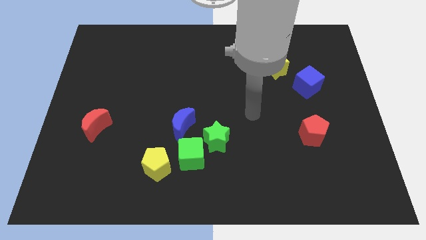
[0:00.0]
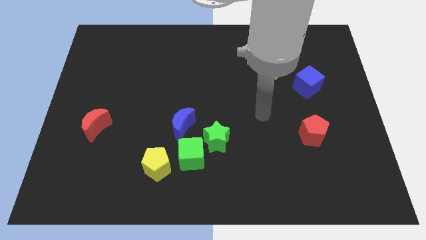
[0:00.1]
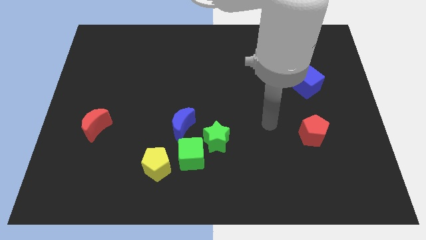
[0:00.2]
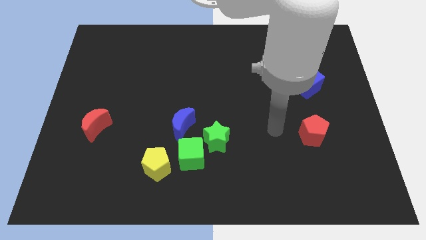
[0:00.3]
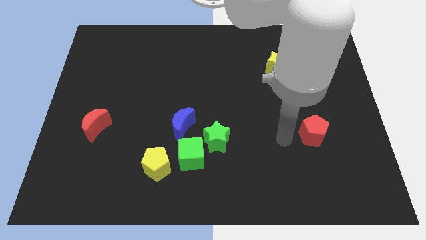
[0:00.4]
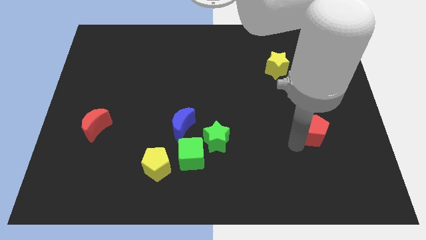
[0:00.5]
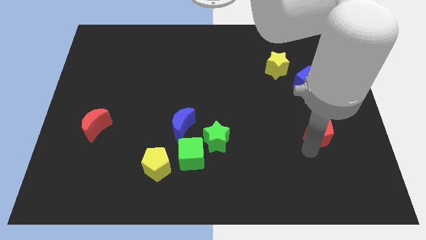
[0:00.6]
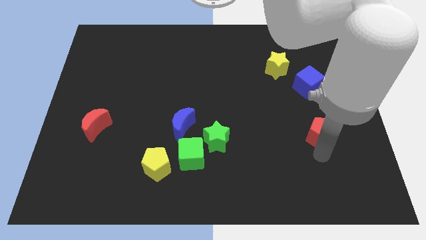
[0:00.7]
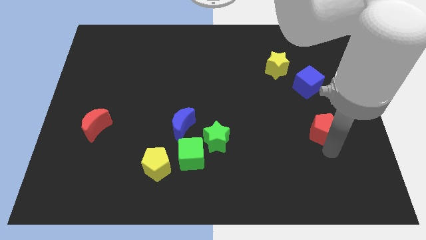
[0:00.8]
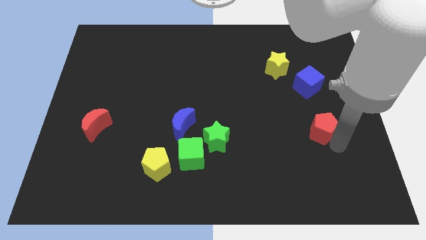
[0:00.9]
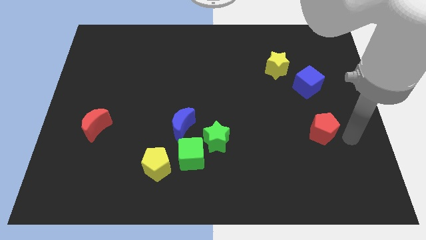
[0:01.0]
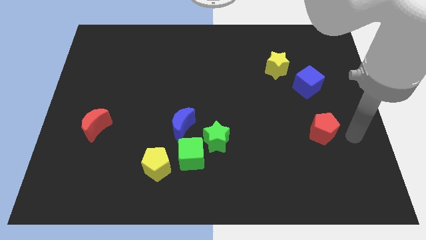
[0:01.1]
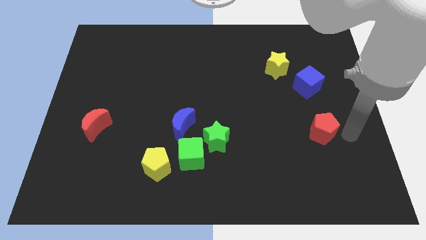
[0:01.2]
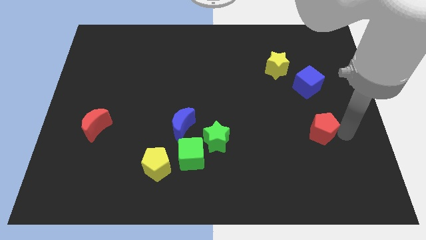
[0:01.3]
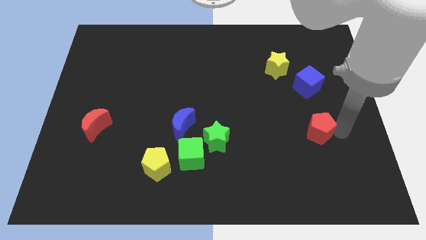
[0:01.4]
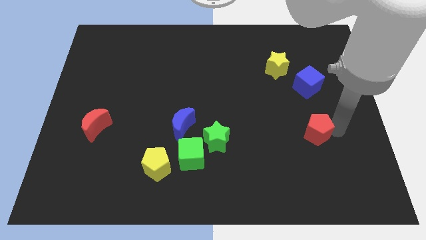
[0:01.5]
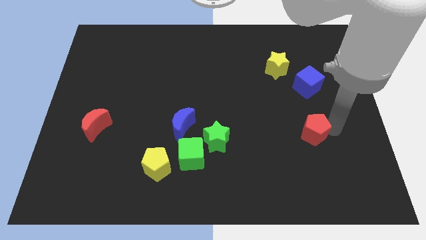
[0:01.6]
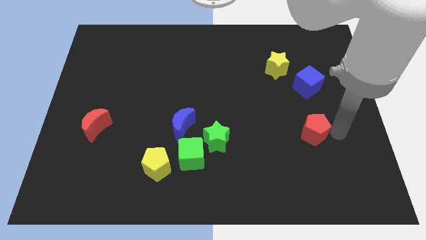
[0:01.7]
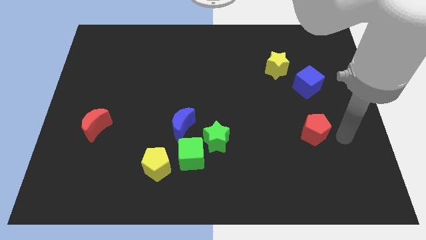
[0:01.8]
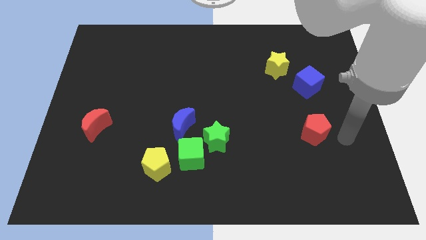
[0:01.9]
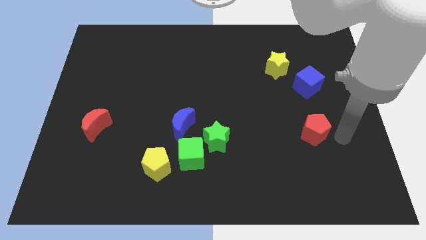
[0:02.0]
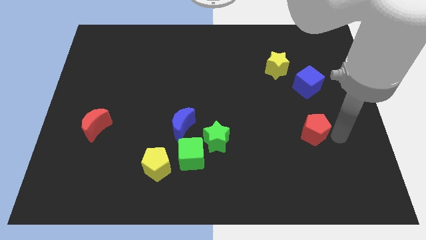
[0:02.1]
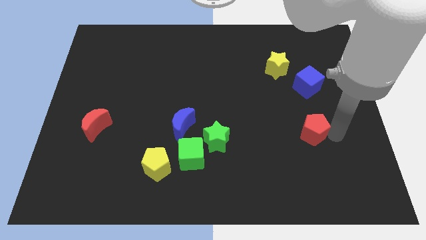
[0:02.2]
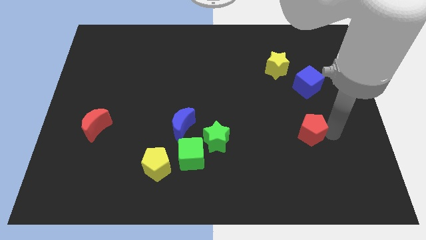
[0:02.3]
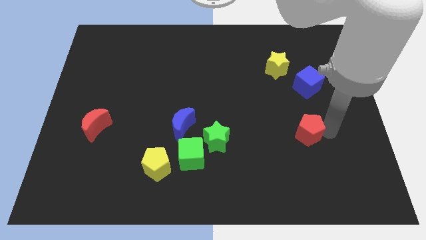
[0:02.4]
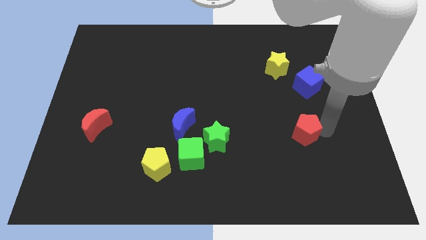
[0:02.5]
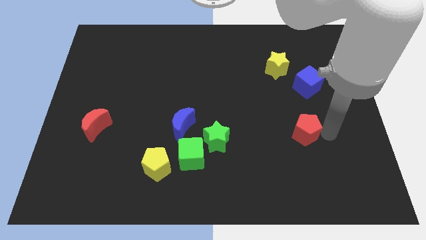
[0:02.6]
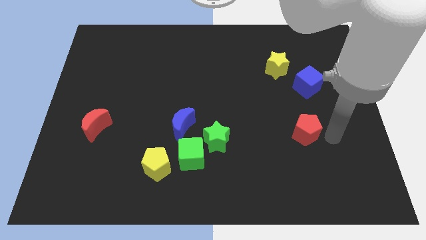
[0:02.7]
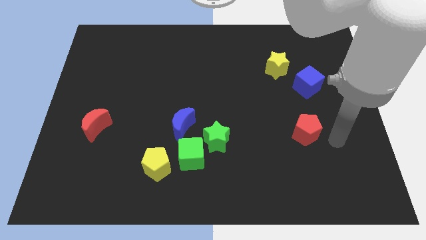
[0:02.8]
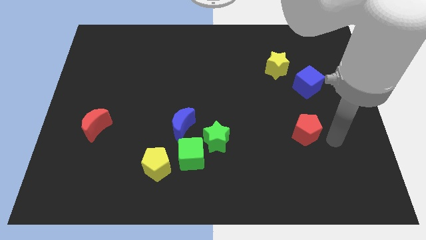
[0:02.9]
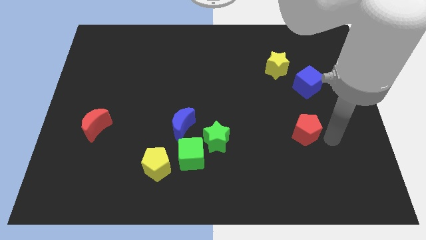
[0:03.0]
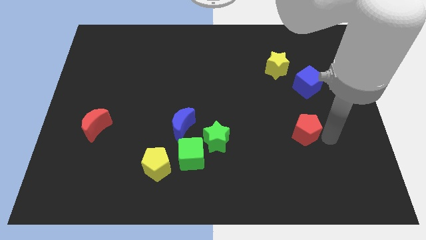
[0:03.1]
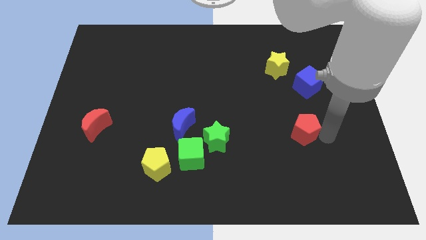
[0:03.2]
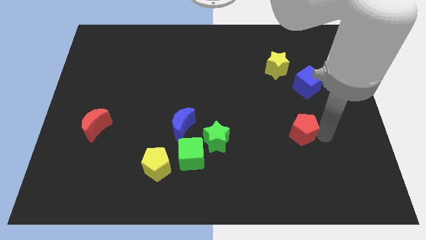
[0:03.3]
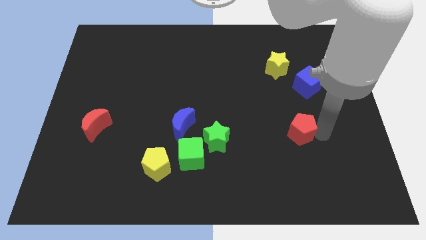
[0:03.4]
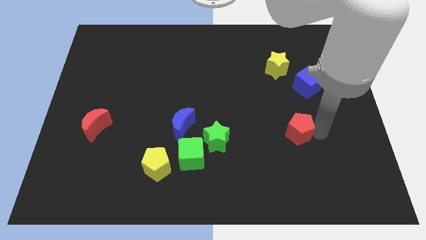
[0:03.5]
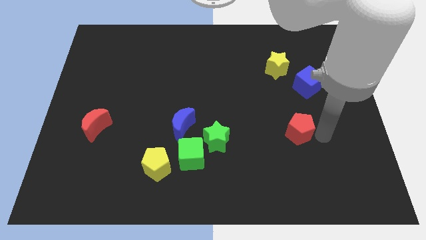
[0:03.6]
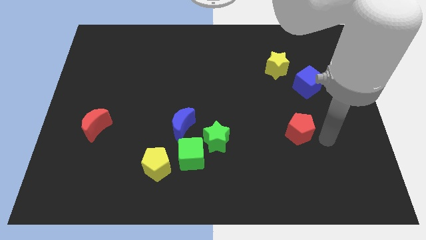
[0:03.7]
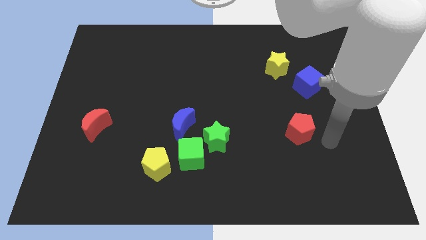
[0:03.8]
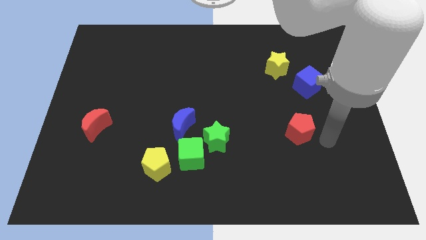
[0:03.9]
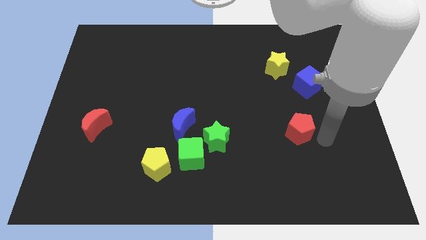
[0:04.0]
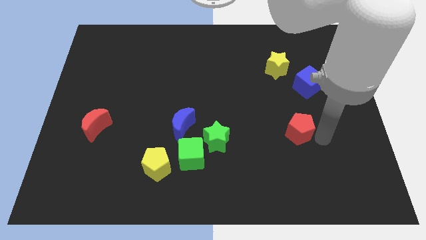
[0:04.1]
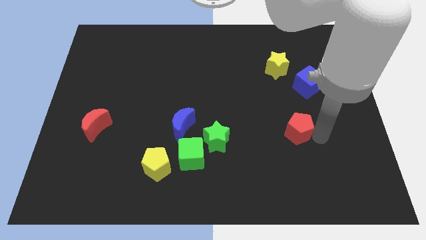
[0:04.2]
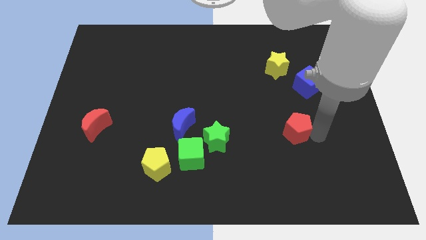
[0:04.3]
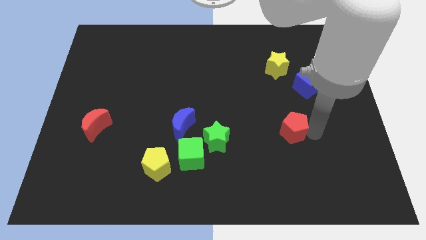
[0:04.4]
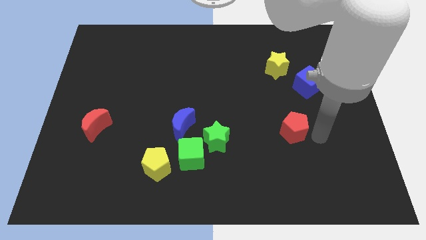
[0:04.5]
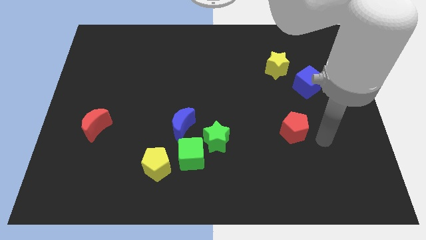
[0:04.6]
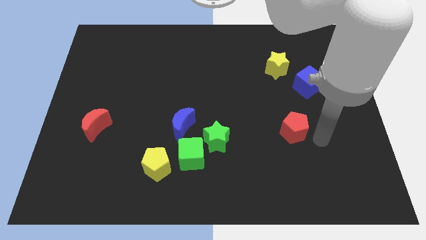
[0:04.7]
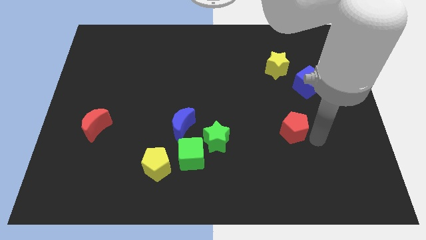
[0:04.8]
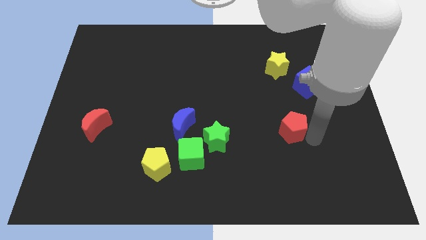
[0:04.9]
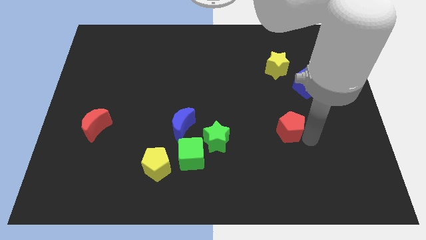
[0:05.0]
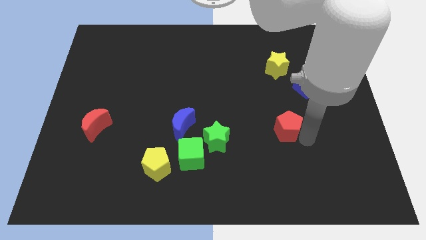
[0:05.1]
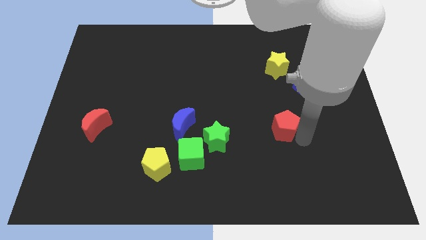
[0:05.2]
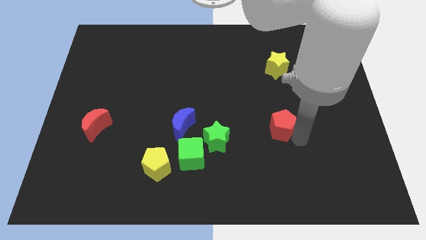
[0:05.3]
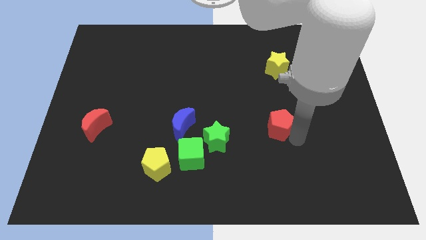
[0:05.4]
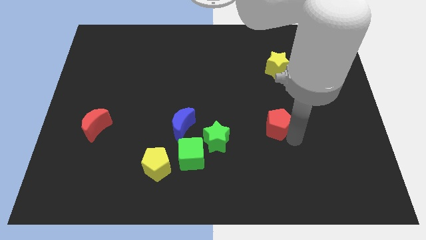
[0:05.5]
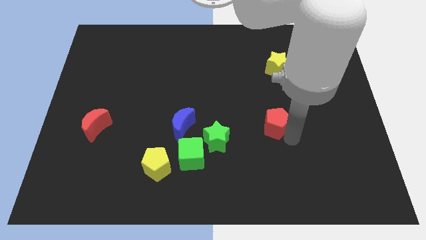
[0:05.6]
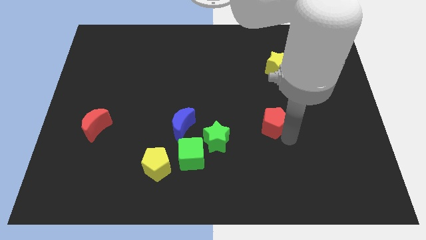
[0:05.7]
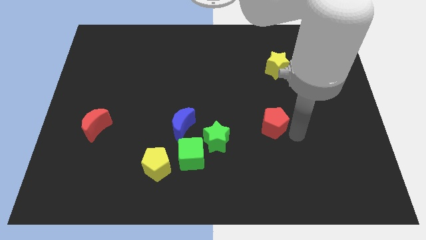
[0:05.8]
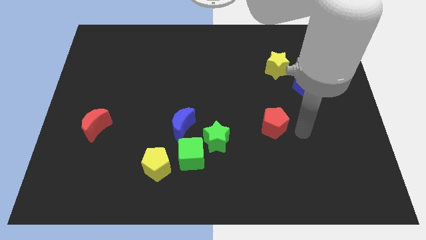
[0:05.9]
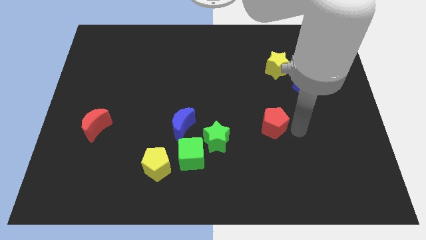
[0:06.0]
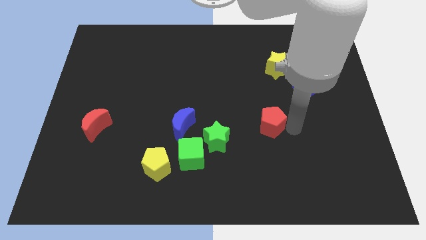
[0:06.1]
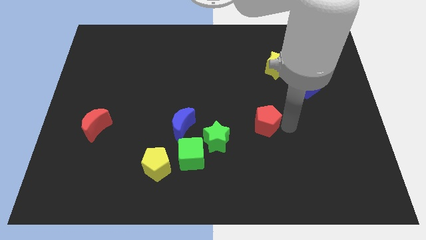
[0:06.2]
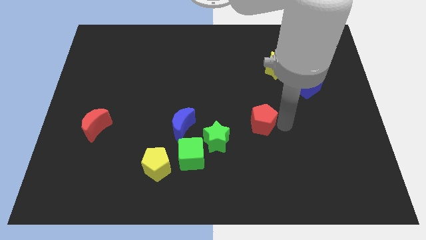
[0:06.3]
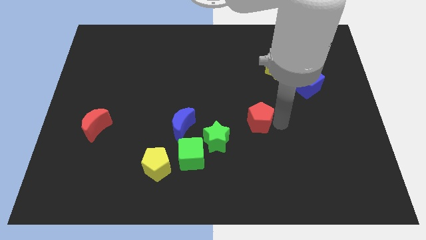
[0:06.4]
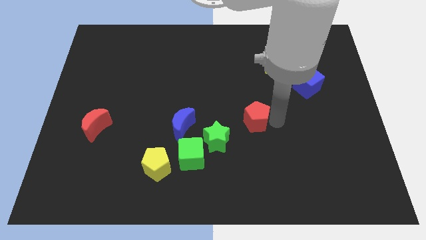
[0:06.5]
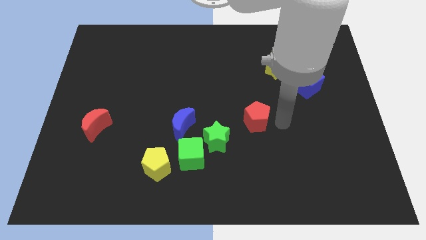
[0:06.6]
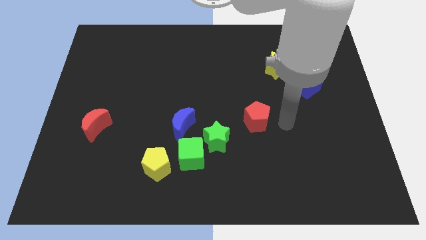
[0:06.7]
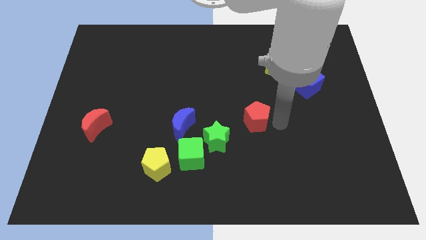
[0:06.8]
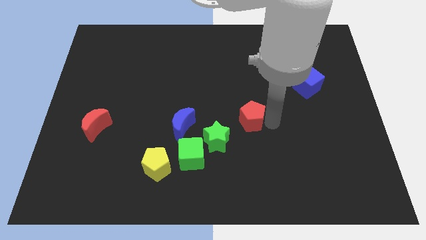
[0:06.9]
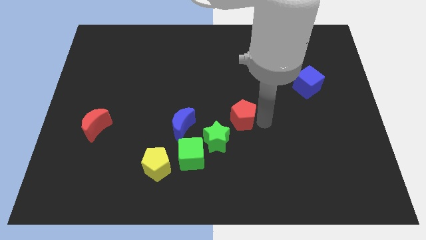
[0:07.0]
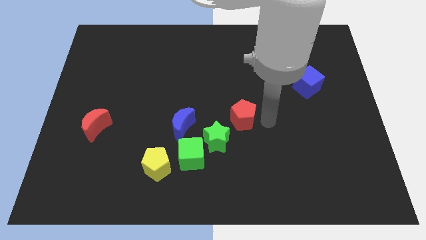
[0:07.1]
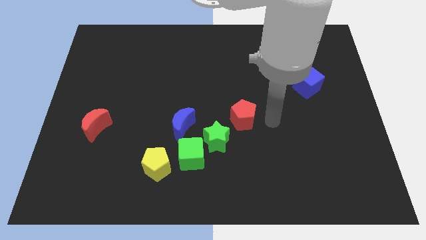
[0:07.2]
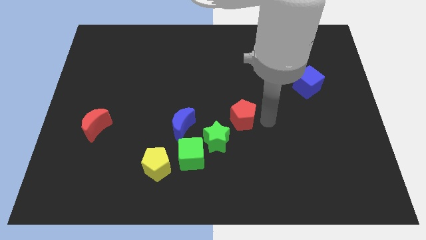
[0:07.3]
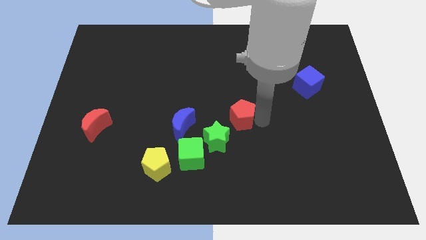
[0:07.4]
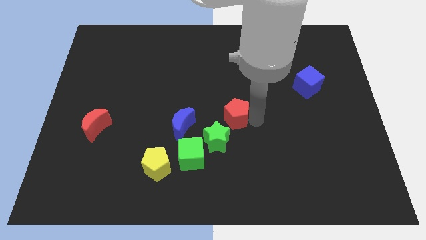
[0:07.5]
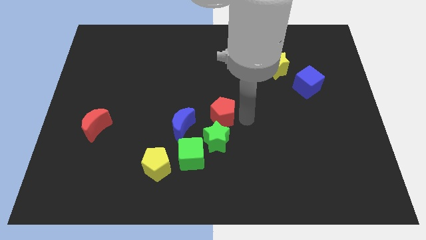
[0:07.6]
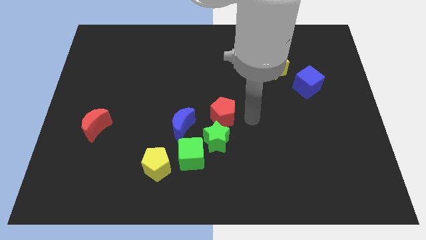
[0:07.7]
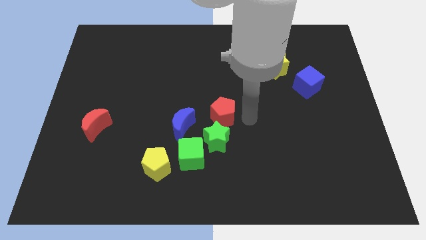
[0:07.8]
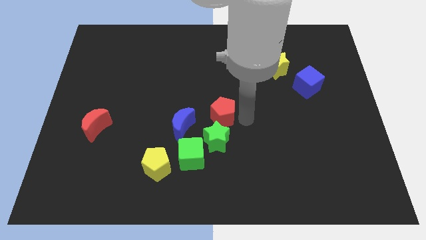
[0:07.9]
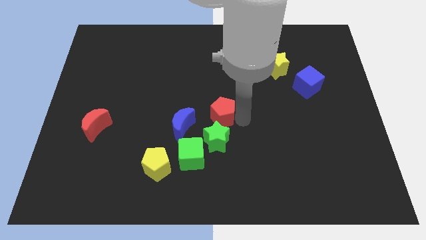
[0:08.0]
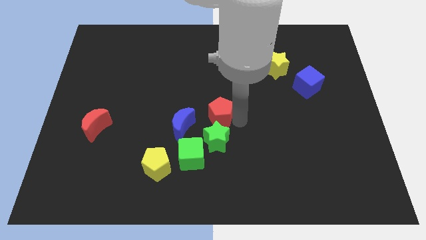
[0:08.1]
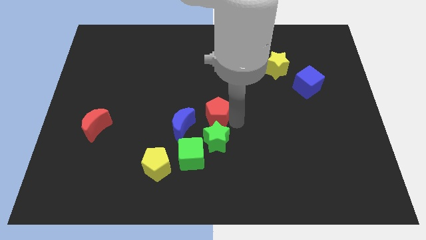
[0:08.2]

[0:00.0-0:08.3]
move the red pentagon left
